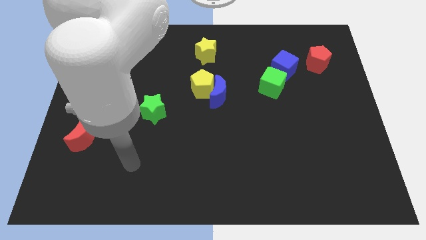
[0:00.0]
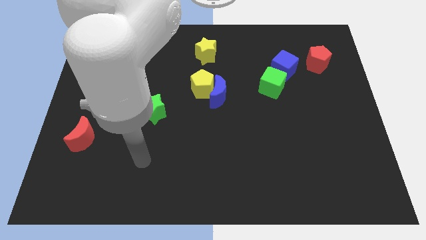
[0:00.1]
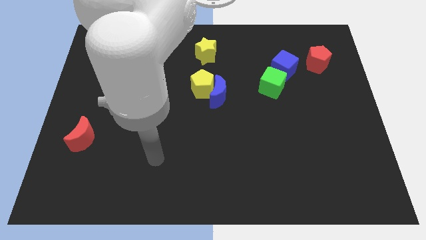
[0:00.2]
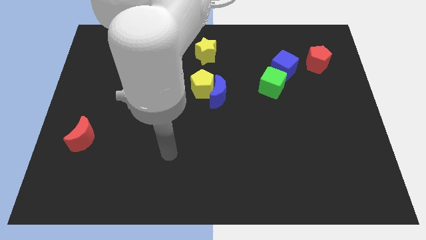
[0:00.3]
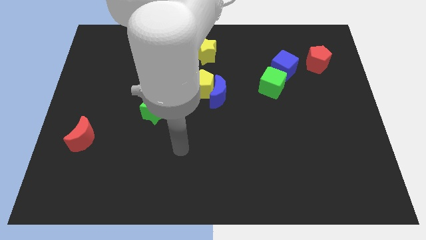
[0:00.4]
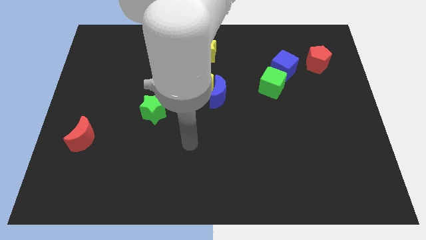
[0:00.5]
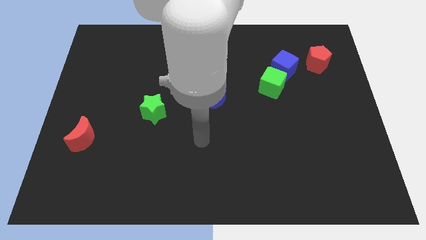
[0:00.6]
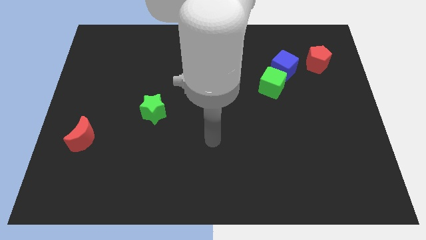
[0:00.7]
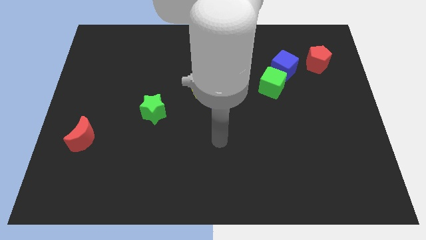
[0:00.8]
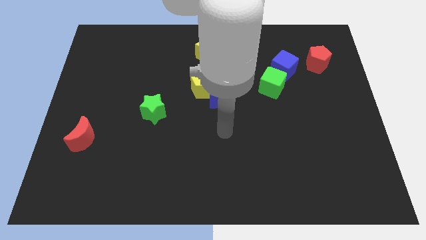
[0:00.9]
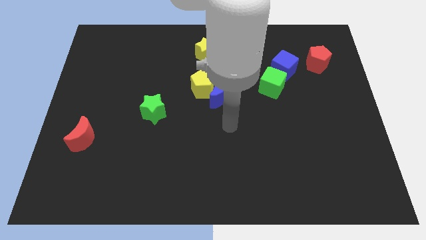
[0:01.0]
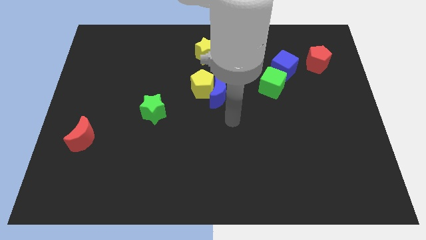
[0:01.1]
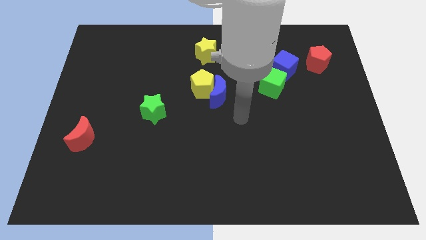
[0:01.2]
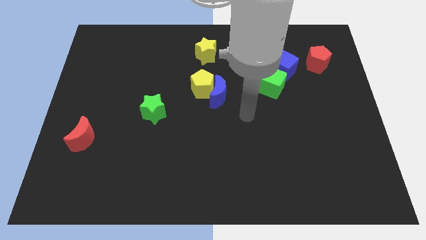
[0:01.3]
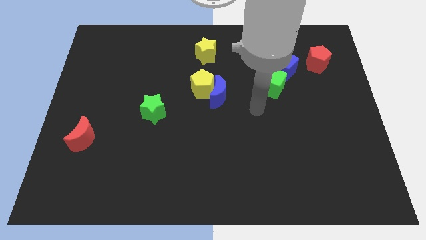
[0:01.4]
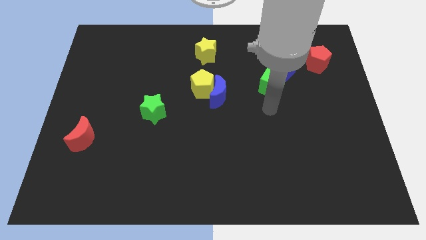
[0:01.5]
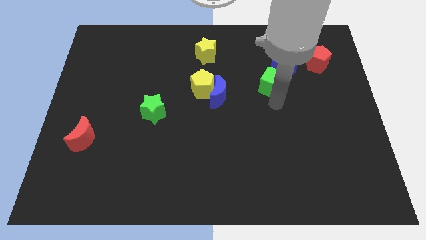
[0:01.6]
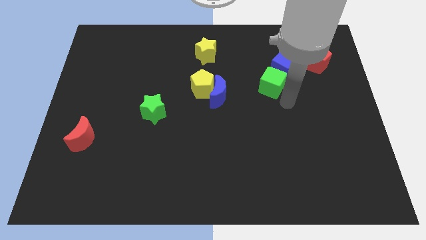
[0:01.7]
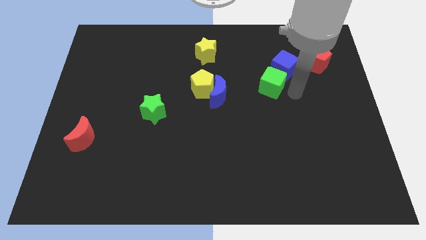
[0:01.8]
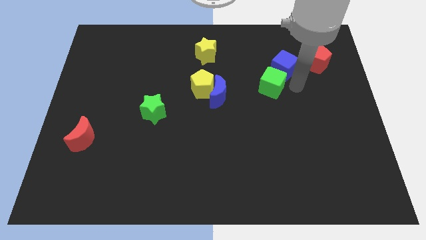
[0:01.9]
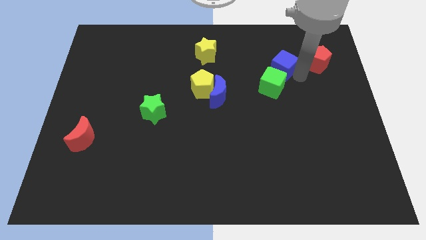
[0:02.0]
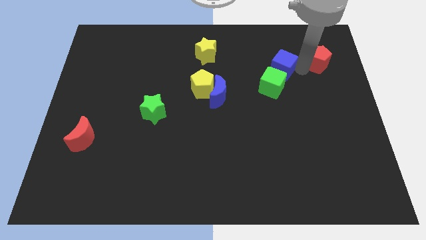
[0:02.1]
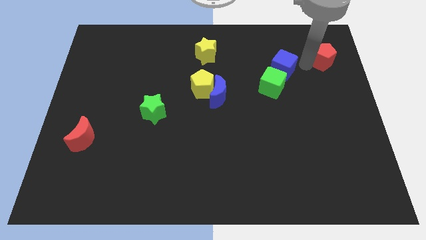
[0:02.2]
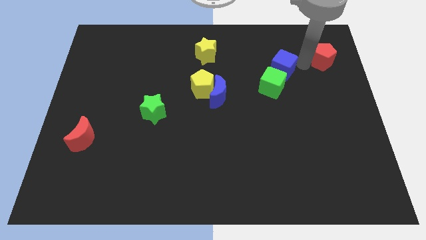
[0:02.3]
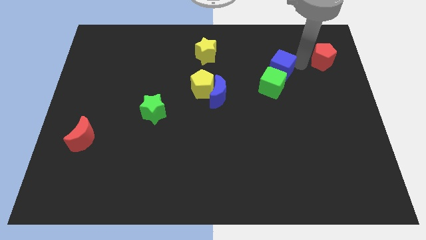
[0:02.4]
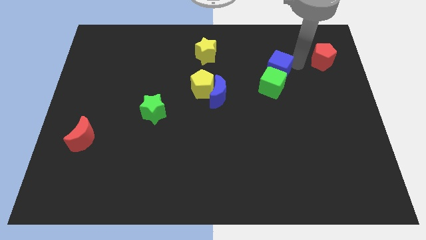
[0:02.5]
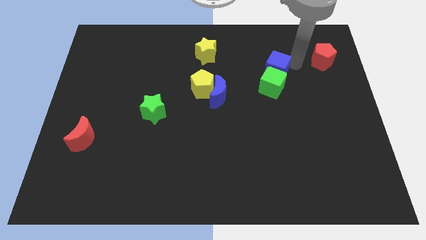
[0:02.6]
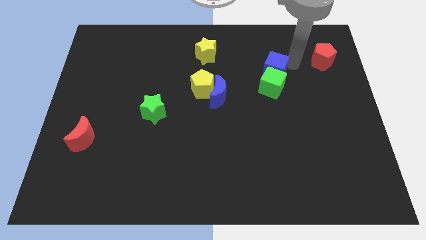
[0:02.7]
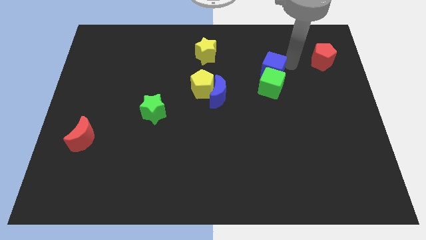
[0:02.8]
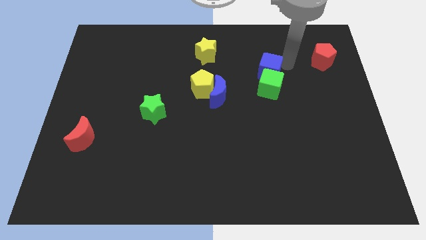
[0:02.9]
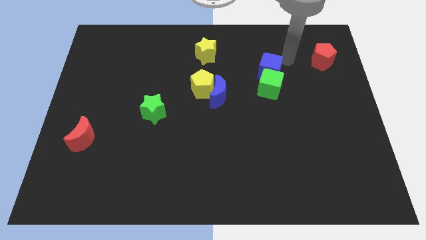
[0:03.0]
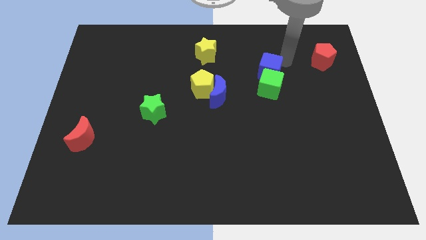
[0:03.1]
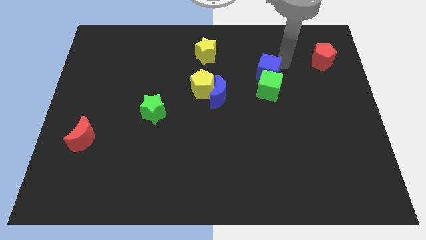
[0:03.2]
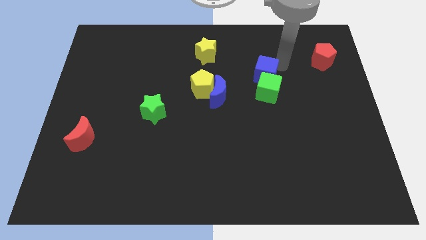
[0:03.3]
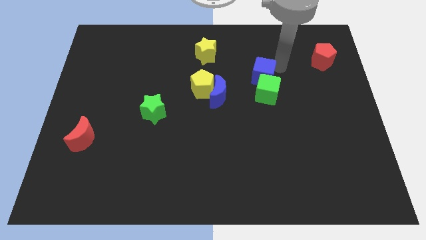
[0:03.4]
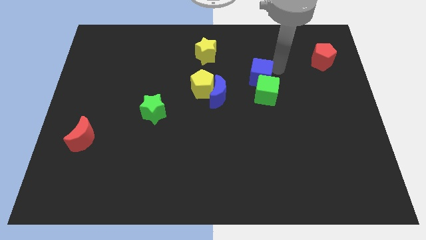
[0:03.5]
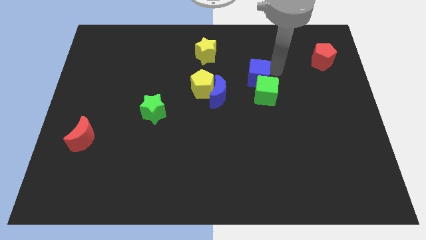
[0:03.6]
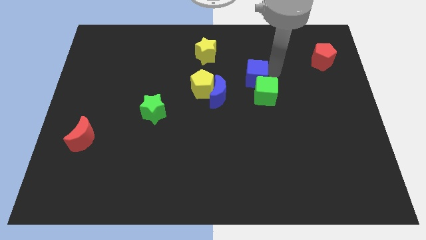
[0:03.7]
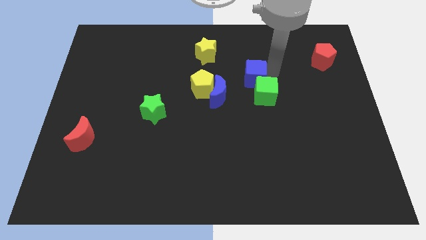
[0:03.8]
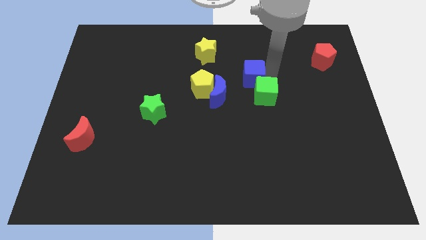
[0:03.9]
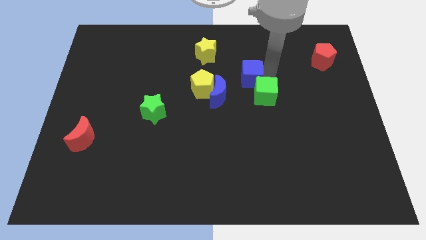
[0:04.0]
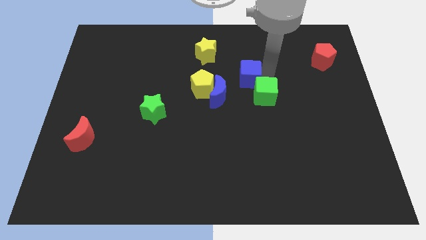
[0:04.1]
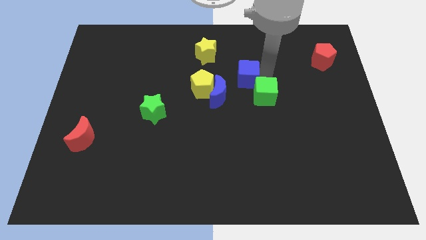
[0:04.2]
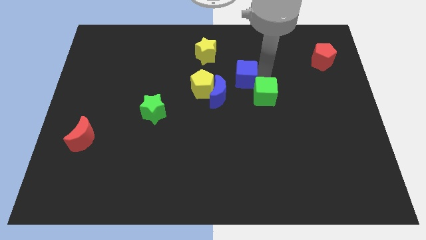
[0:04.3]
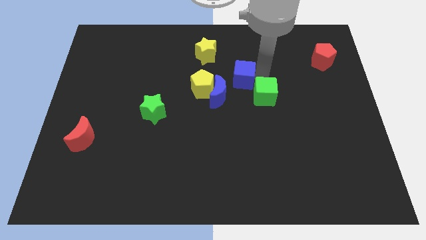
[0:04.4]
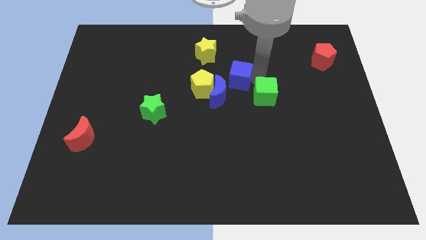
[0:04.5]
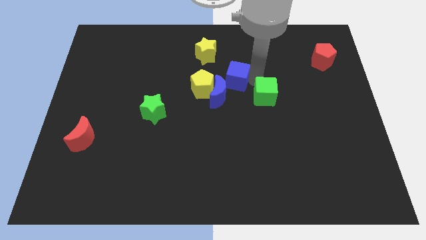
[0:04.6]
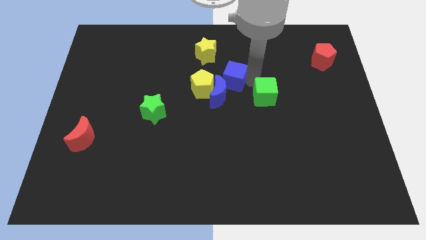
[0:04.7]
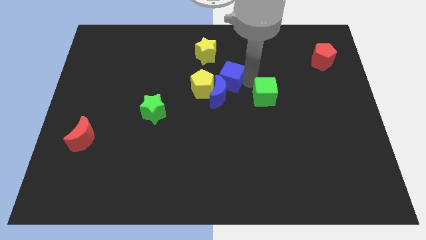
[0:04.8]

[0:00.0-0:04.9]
push the blue cube to the blue moon

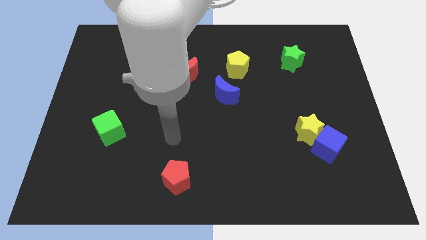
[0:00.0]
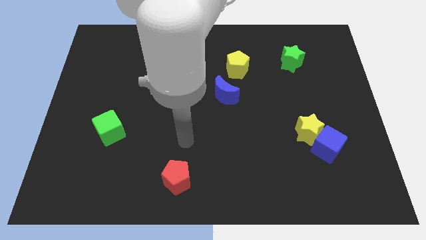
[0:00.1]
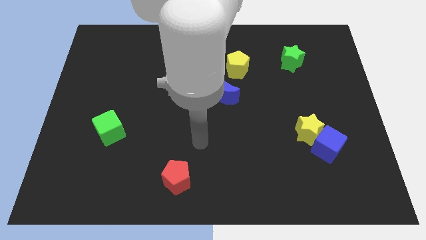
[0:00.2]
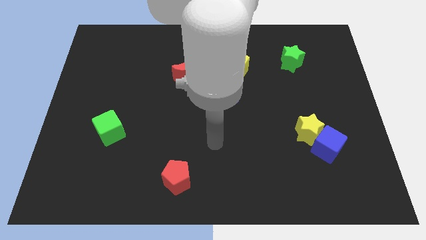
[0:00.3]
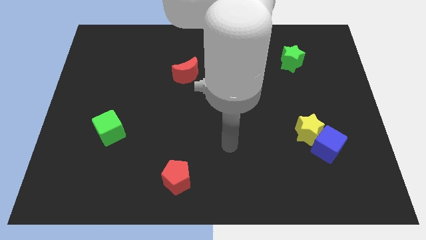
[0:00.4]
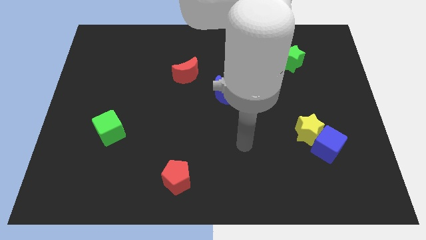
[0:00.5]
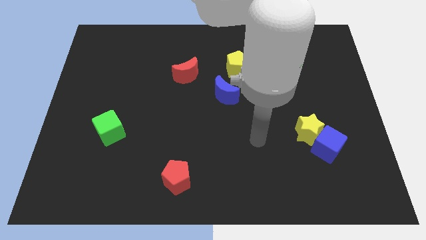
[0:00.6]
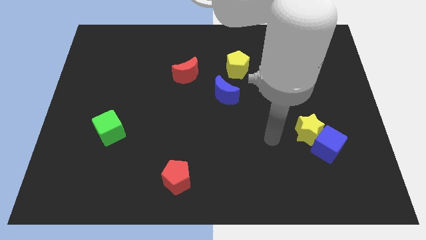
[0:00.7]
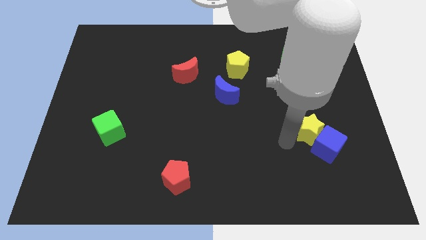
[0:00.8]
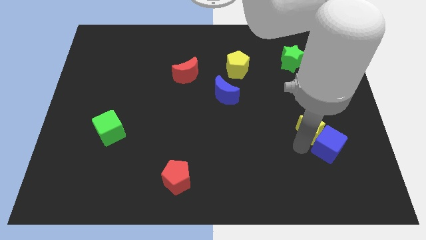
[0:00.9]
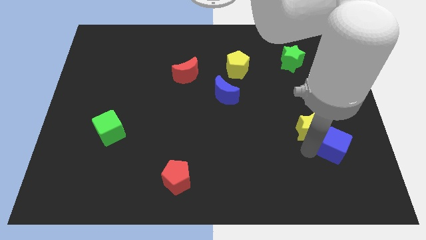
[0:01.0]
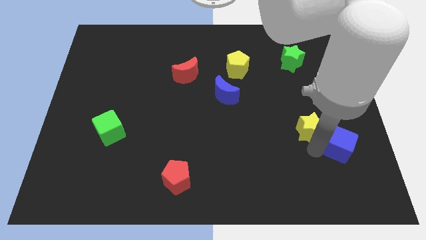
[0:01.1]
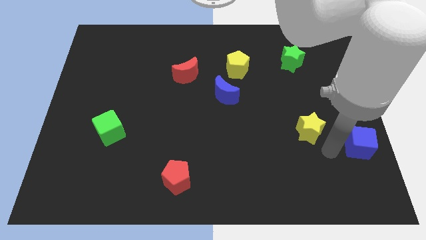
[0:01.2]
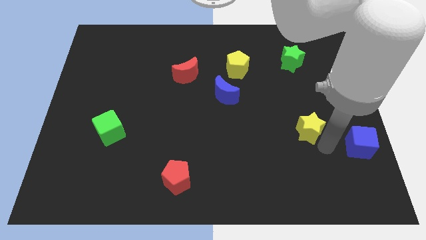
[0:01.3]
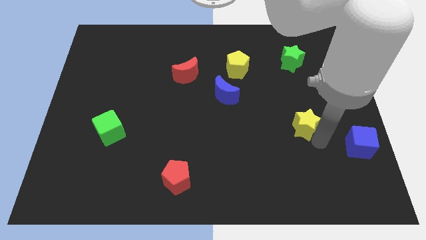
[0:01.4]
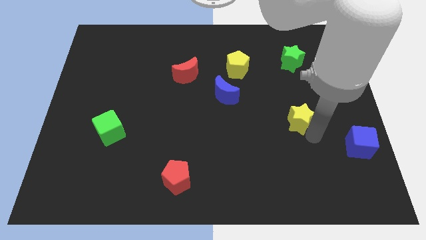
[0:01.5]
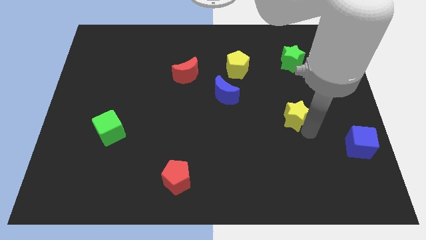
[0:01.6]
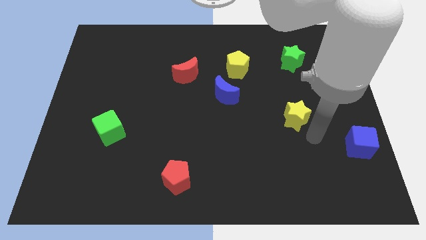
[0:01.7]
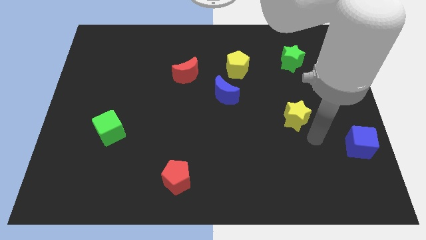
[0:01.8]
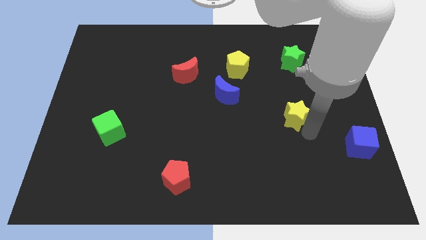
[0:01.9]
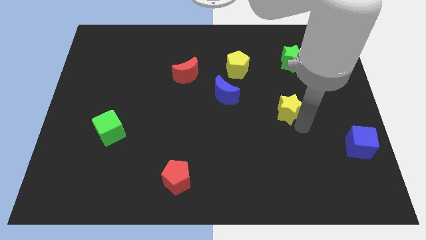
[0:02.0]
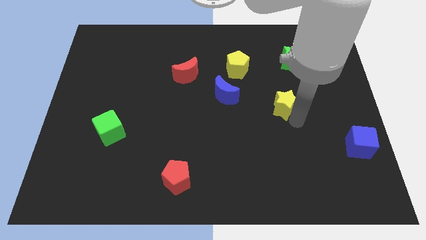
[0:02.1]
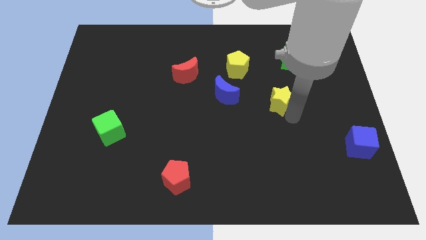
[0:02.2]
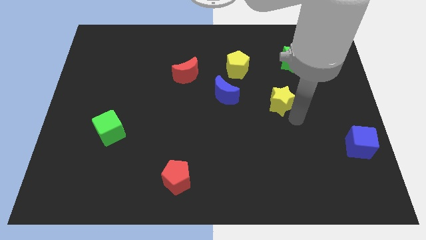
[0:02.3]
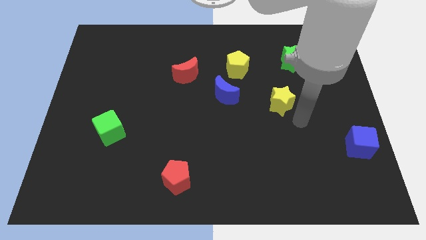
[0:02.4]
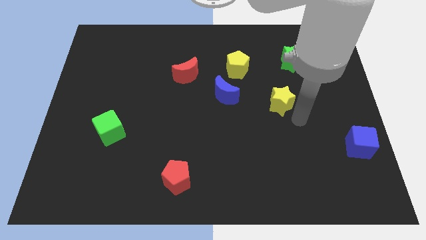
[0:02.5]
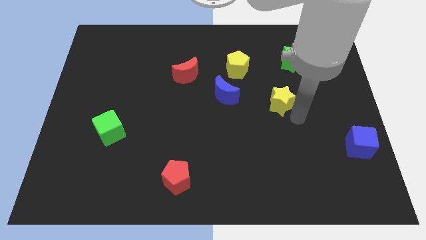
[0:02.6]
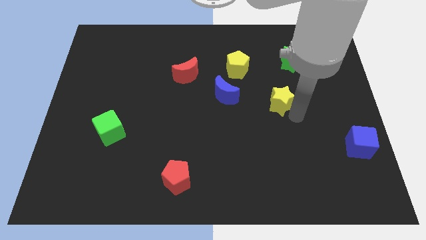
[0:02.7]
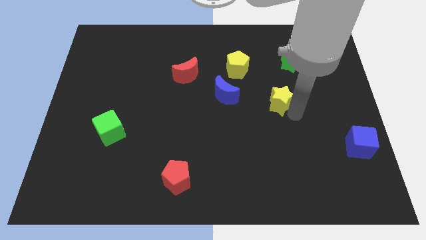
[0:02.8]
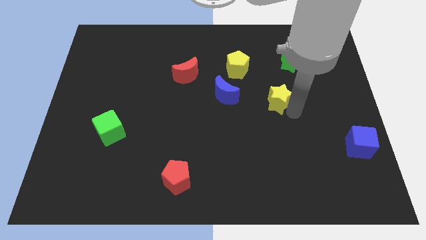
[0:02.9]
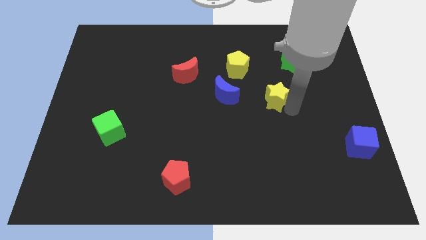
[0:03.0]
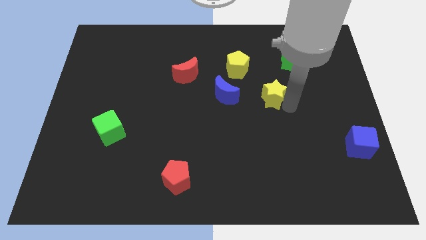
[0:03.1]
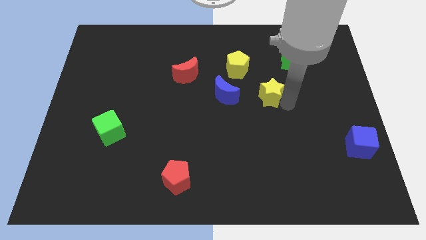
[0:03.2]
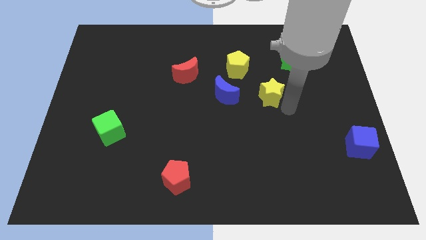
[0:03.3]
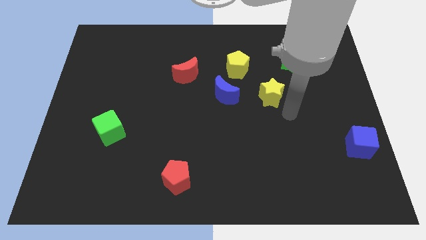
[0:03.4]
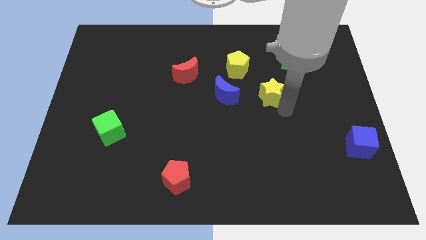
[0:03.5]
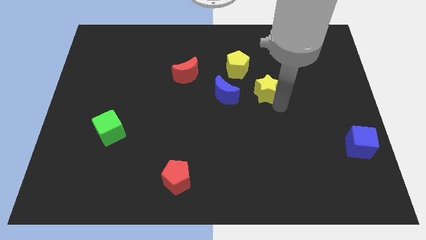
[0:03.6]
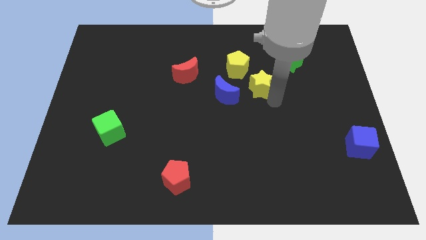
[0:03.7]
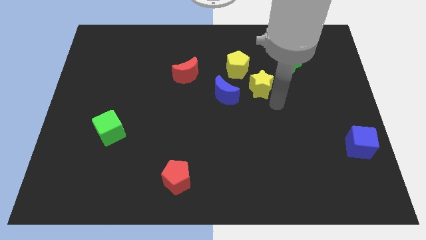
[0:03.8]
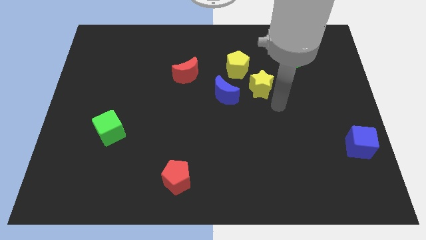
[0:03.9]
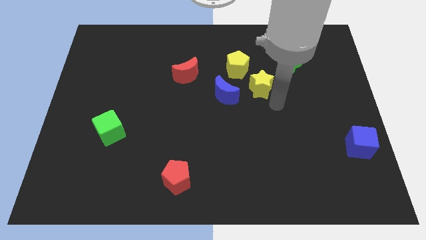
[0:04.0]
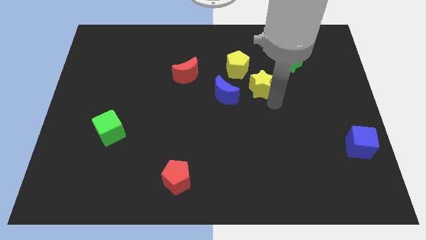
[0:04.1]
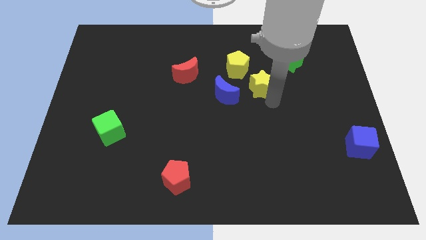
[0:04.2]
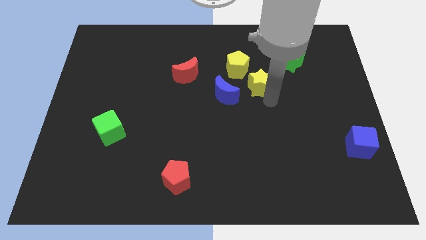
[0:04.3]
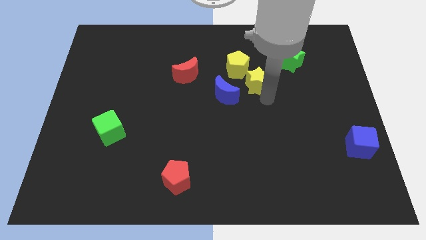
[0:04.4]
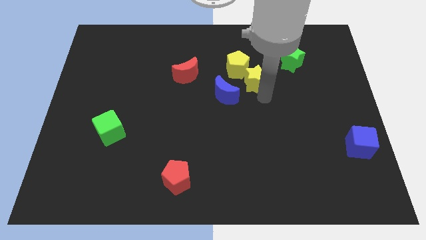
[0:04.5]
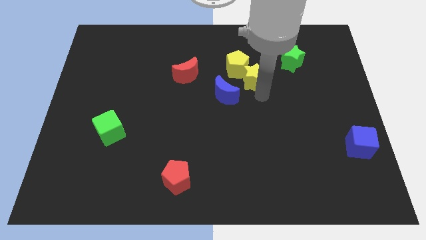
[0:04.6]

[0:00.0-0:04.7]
move the yellow star next to the yellow pentagon
